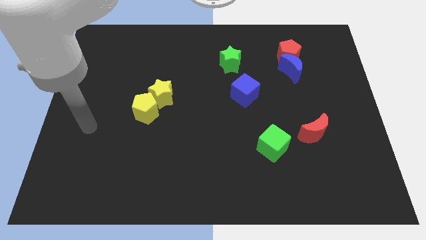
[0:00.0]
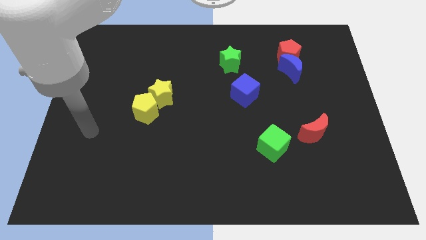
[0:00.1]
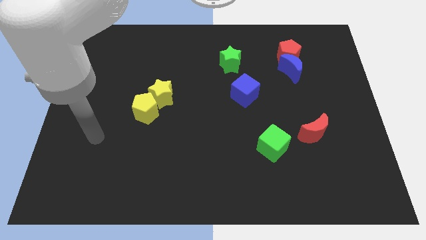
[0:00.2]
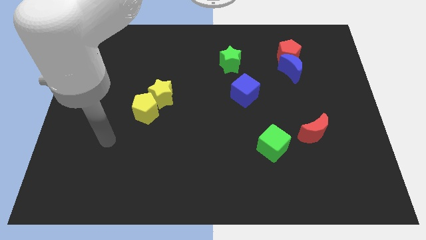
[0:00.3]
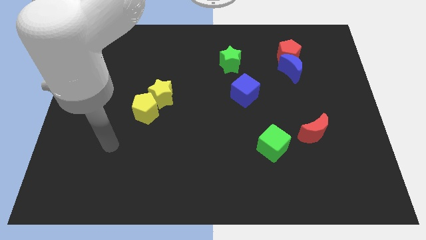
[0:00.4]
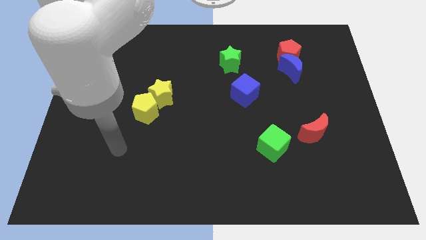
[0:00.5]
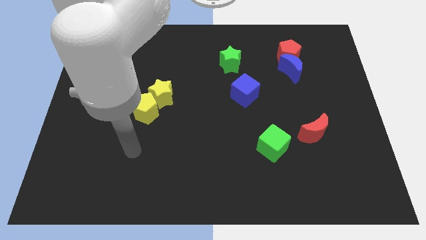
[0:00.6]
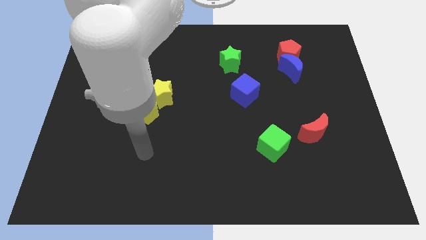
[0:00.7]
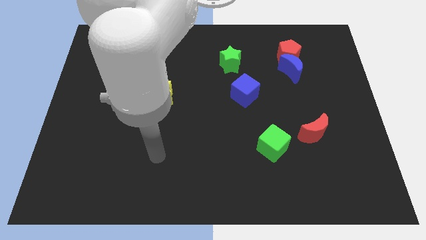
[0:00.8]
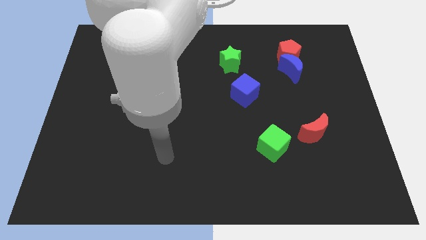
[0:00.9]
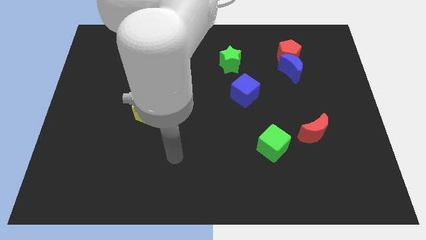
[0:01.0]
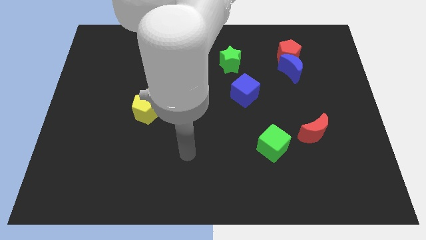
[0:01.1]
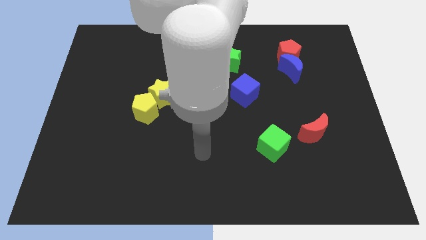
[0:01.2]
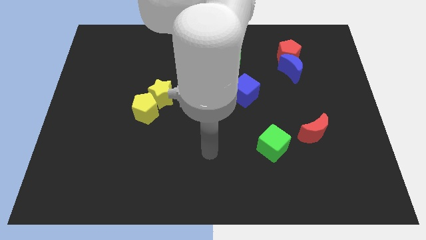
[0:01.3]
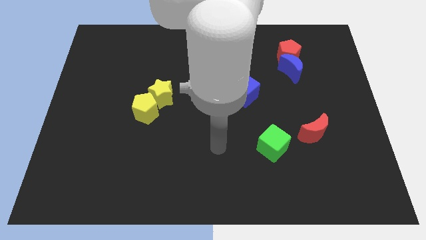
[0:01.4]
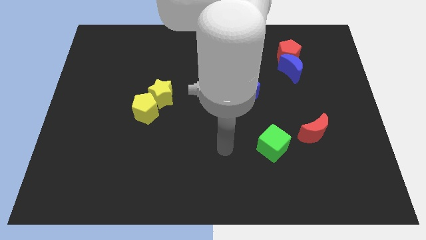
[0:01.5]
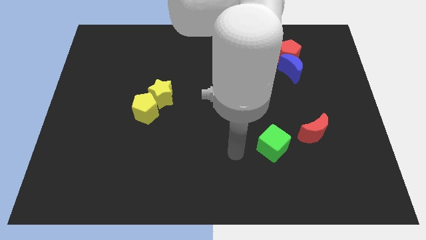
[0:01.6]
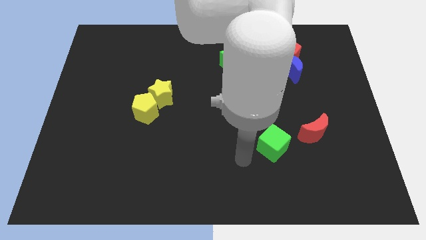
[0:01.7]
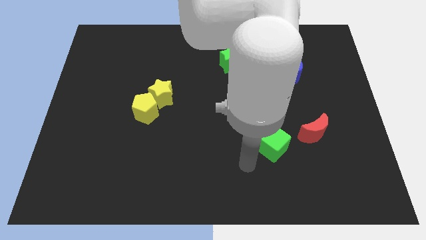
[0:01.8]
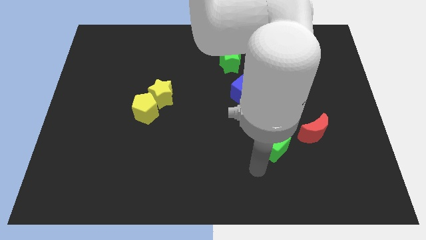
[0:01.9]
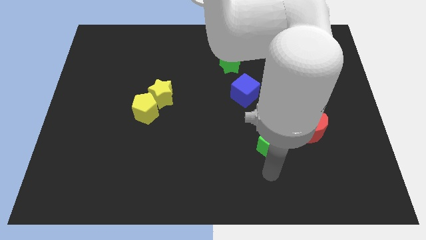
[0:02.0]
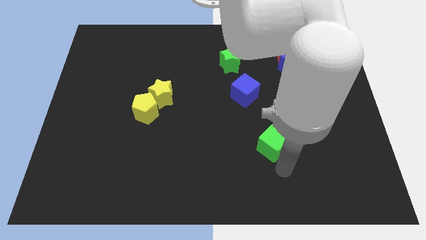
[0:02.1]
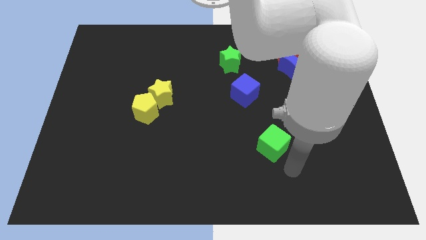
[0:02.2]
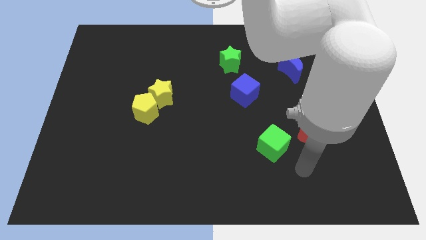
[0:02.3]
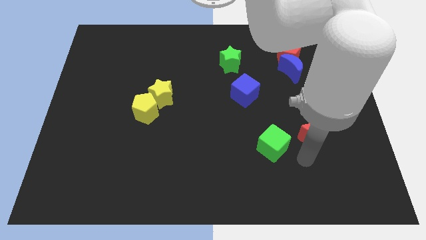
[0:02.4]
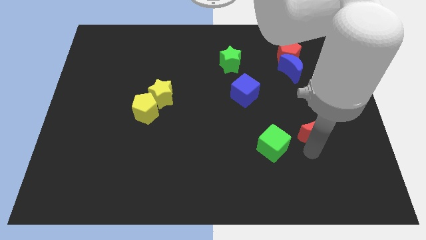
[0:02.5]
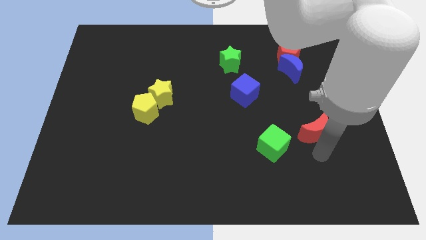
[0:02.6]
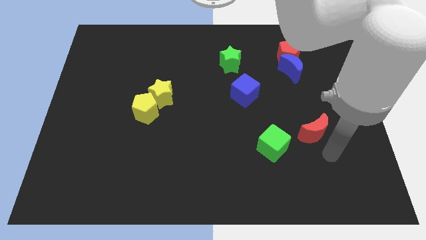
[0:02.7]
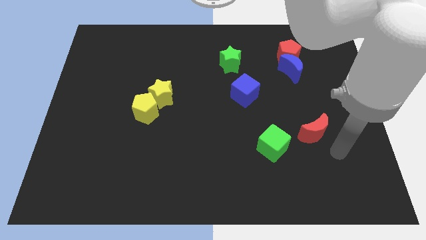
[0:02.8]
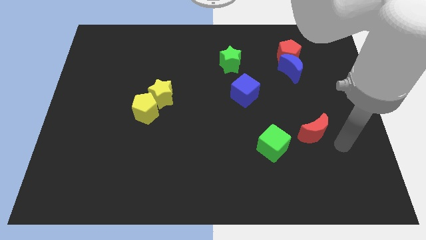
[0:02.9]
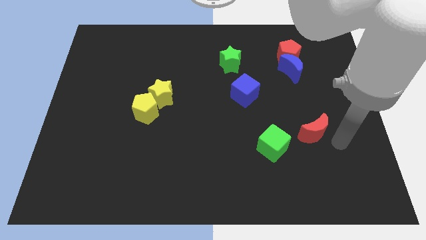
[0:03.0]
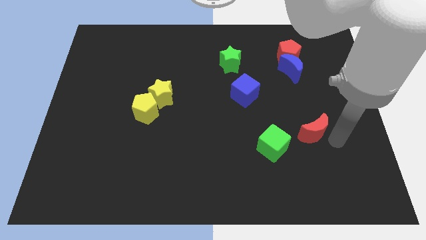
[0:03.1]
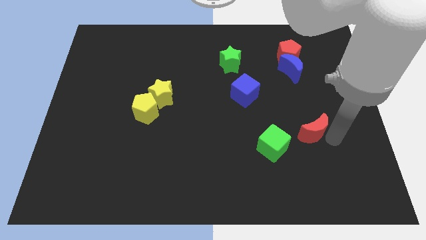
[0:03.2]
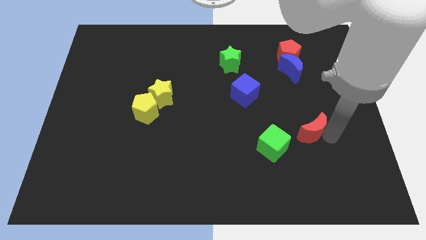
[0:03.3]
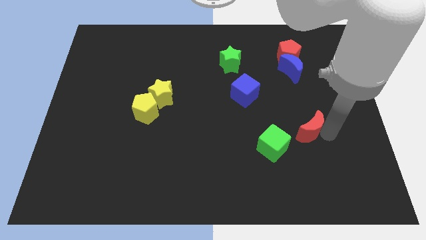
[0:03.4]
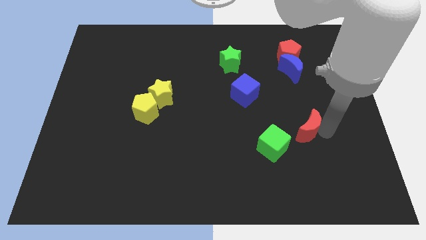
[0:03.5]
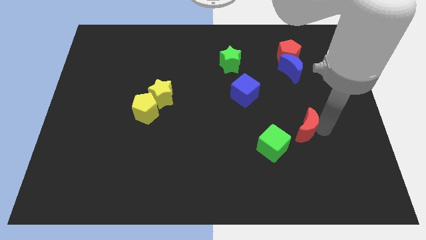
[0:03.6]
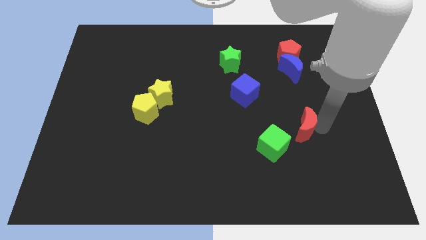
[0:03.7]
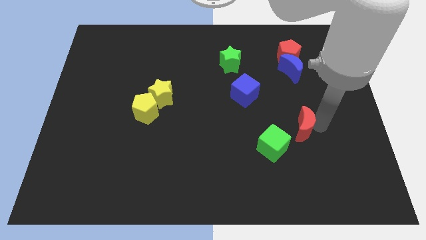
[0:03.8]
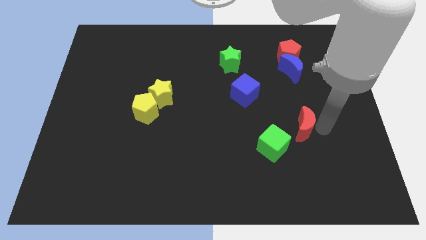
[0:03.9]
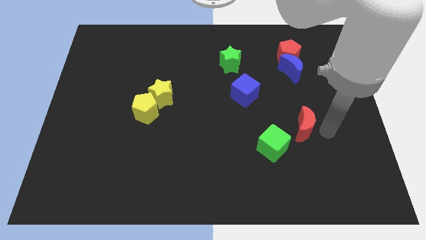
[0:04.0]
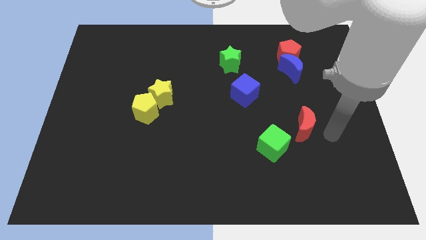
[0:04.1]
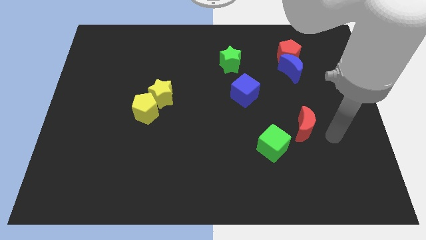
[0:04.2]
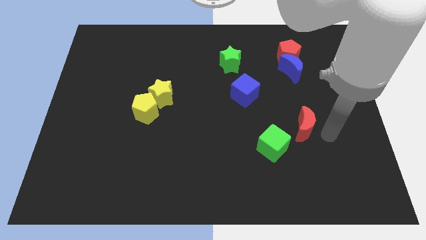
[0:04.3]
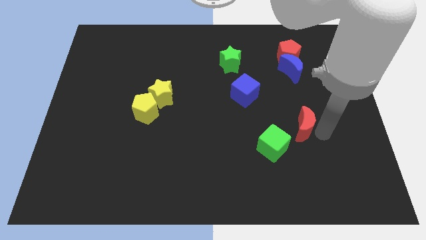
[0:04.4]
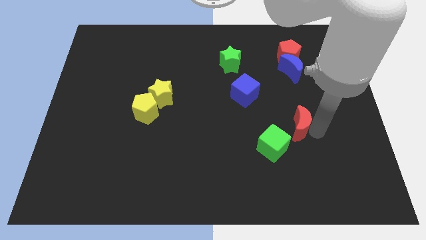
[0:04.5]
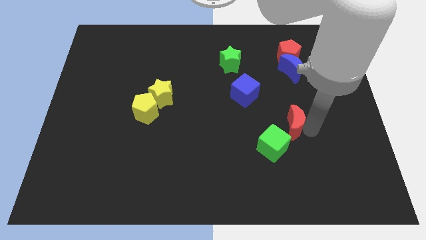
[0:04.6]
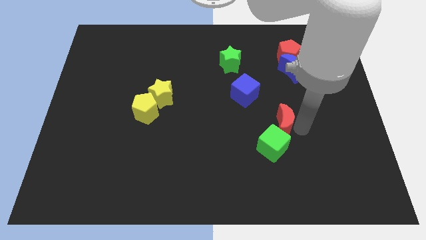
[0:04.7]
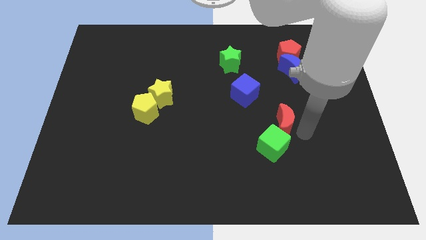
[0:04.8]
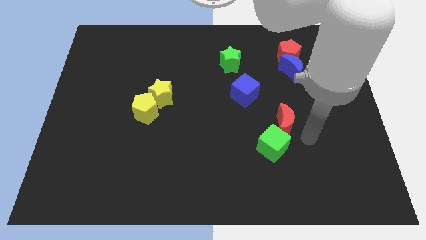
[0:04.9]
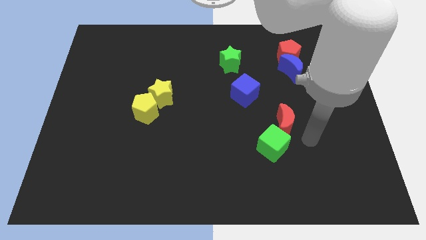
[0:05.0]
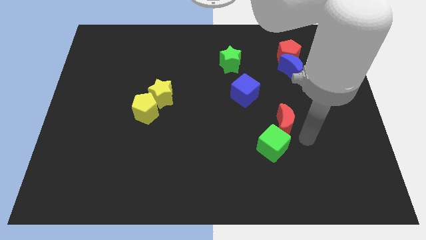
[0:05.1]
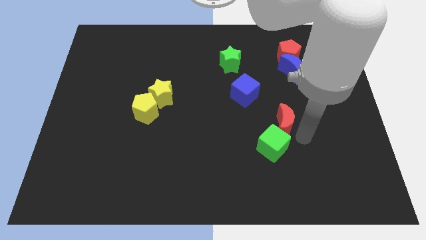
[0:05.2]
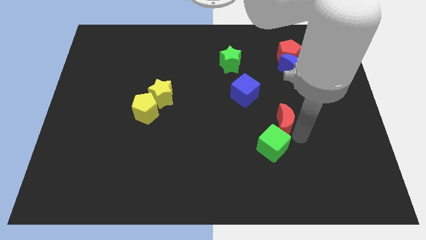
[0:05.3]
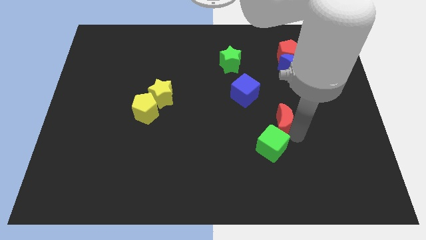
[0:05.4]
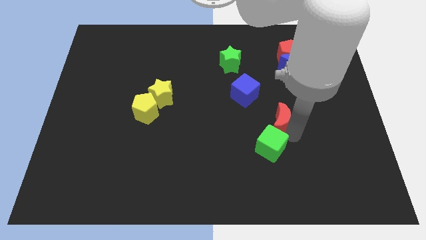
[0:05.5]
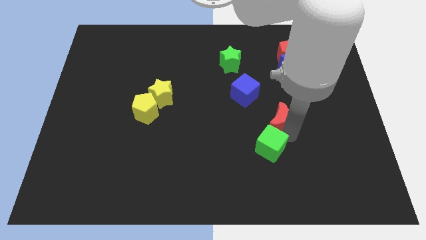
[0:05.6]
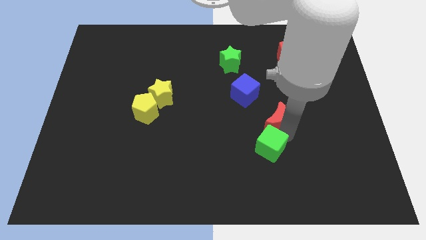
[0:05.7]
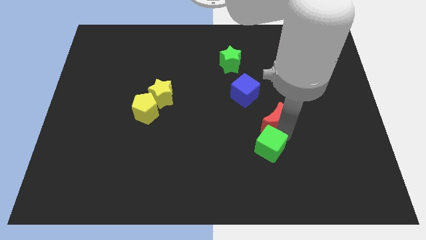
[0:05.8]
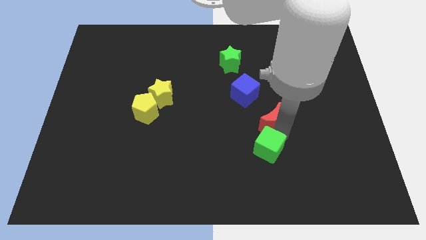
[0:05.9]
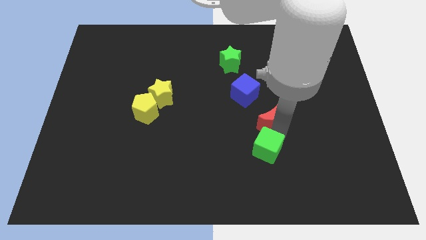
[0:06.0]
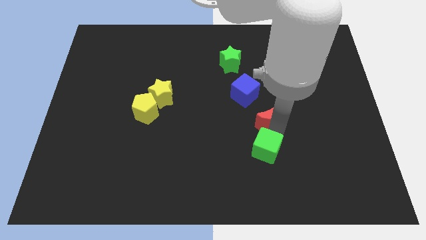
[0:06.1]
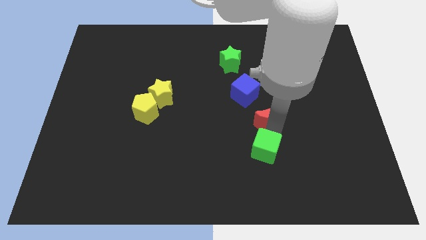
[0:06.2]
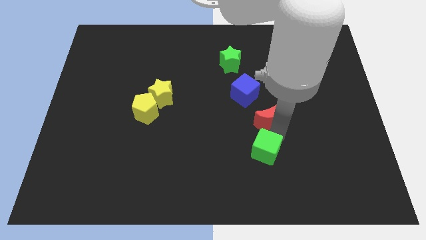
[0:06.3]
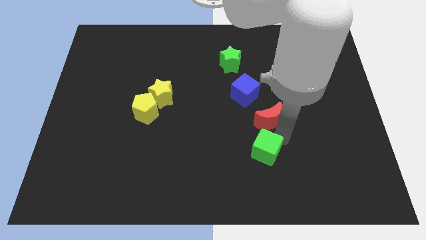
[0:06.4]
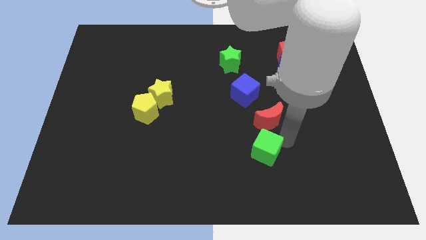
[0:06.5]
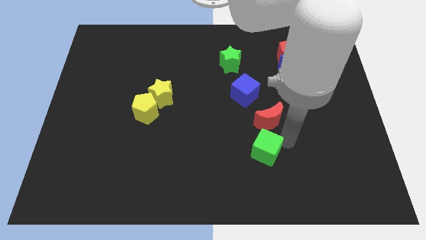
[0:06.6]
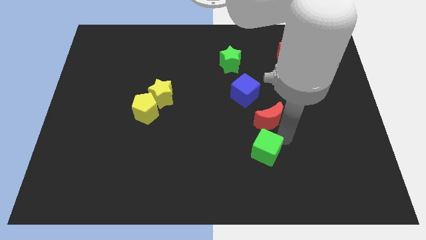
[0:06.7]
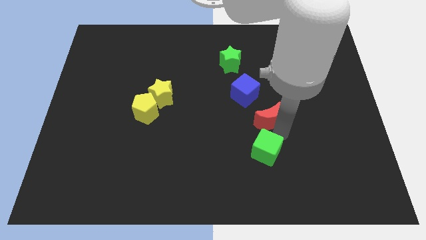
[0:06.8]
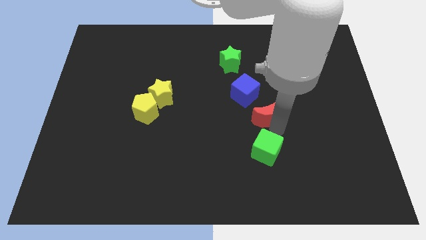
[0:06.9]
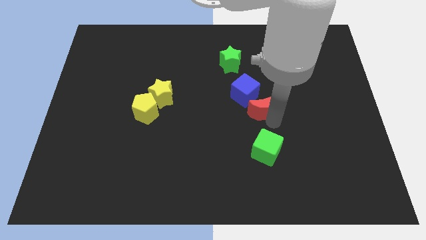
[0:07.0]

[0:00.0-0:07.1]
slide the red moon to the middle of the board
